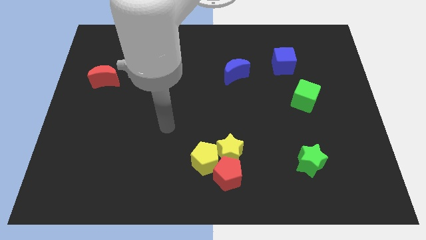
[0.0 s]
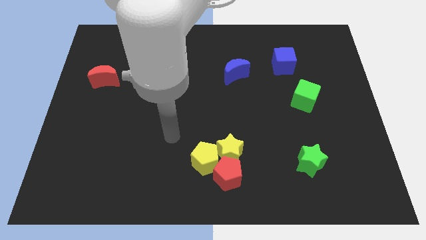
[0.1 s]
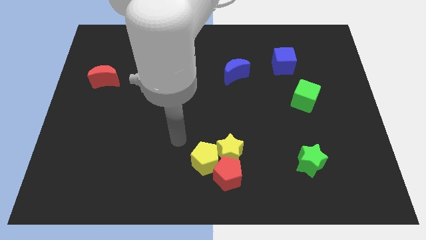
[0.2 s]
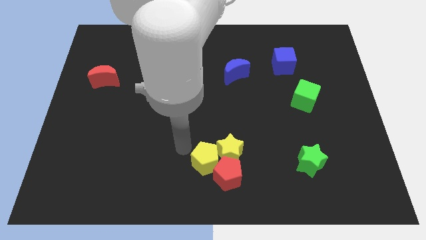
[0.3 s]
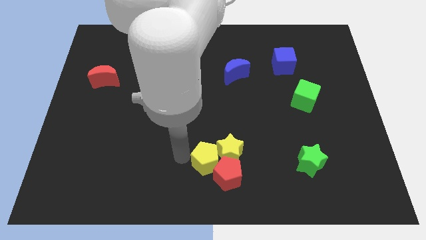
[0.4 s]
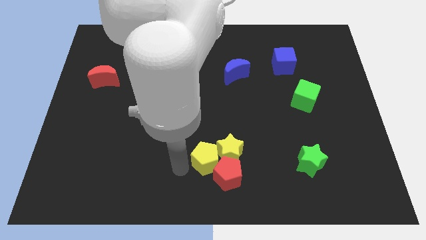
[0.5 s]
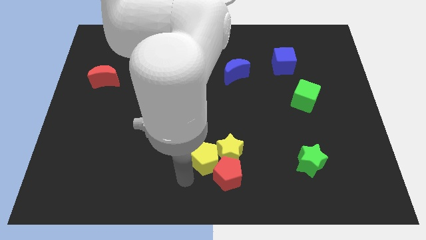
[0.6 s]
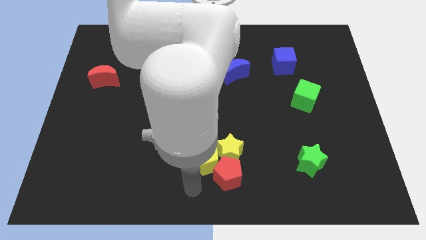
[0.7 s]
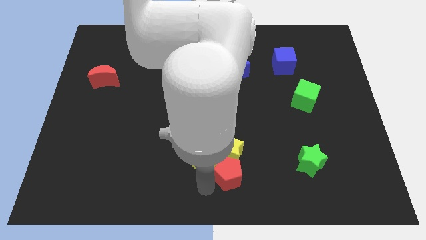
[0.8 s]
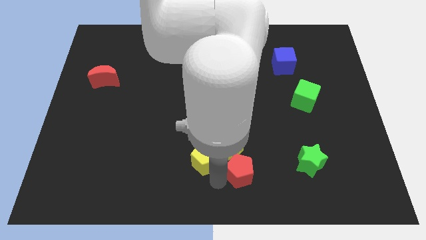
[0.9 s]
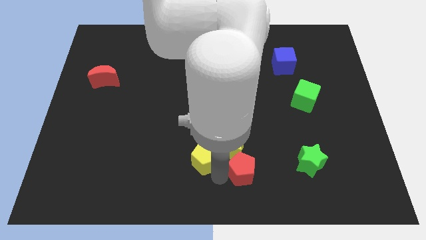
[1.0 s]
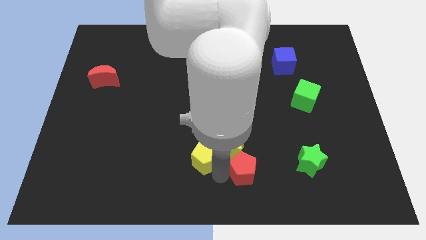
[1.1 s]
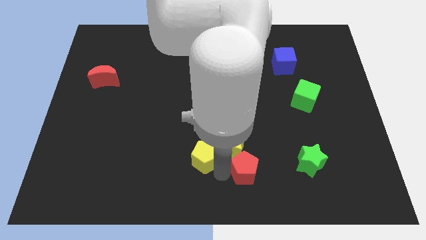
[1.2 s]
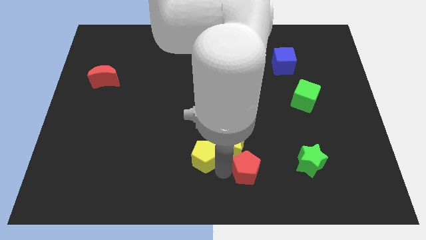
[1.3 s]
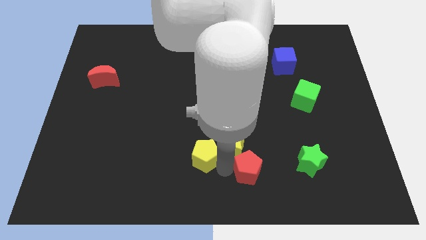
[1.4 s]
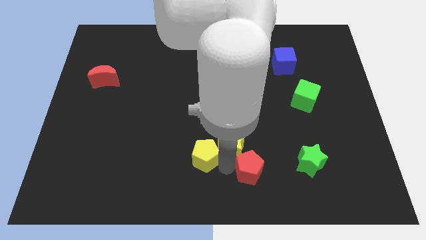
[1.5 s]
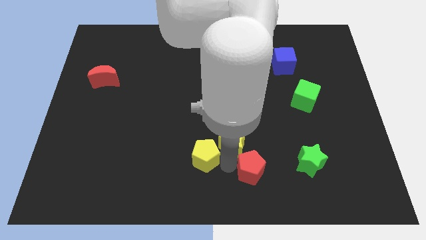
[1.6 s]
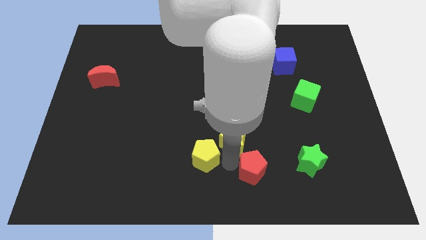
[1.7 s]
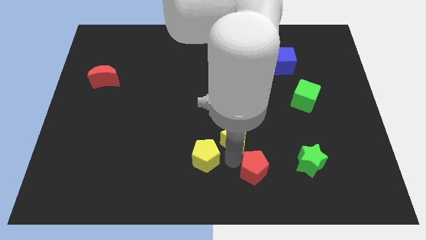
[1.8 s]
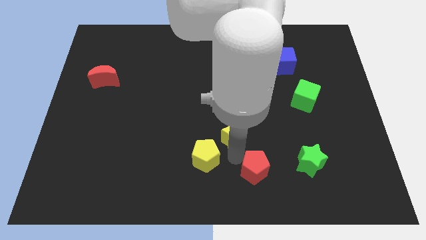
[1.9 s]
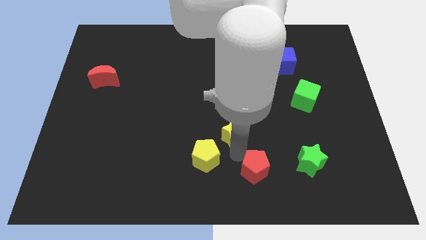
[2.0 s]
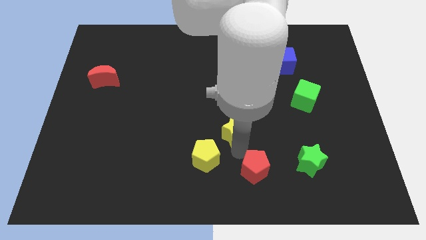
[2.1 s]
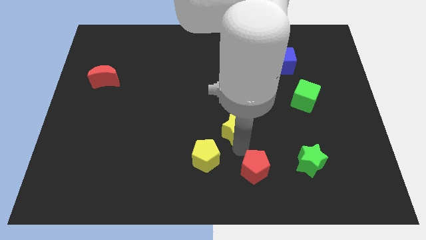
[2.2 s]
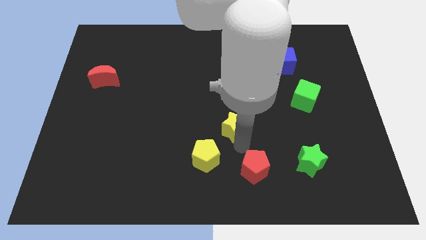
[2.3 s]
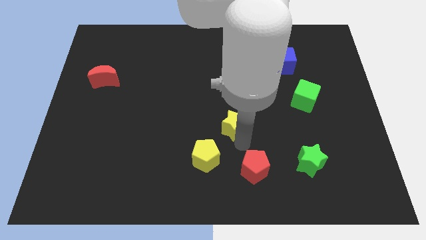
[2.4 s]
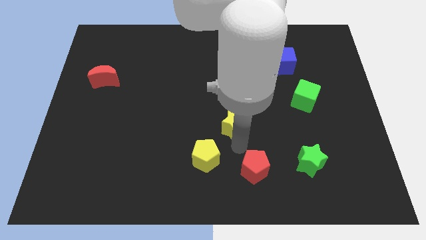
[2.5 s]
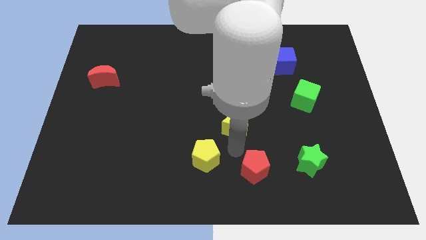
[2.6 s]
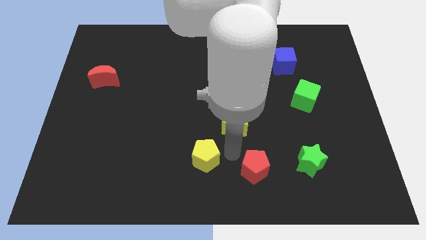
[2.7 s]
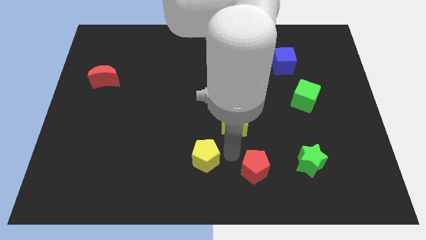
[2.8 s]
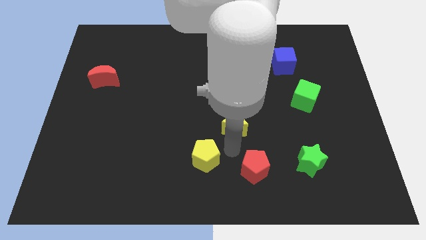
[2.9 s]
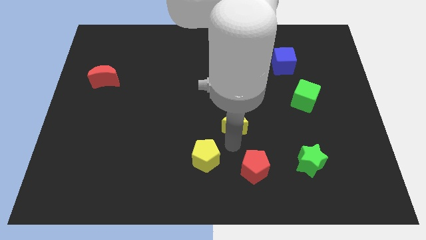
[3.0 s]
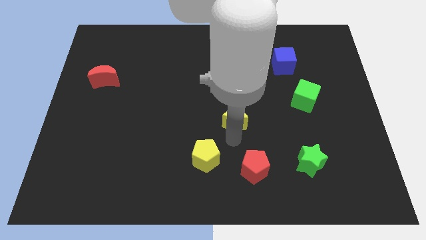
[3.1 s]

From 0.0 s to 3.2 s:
separate the yellow star from the red pentagon and yellow pentagon

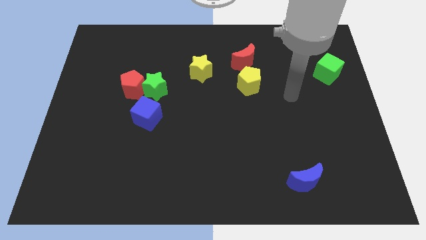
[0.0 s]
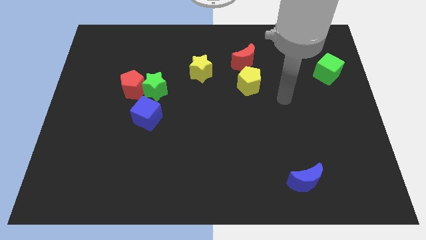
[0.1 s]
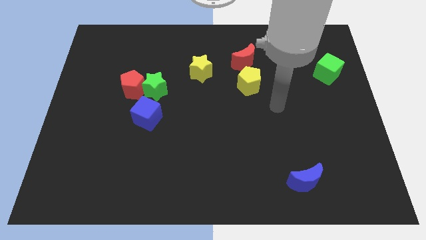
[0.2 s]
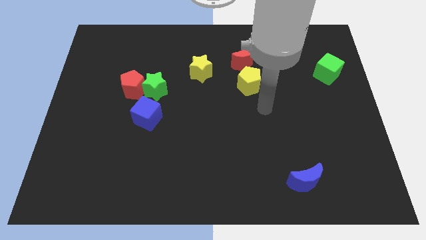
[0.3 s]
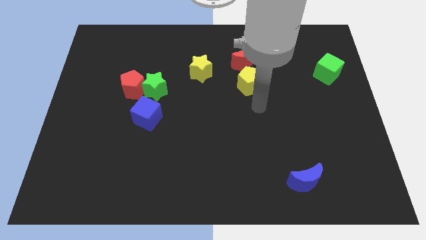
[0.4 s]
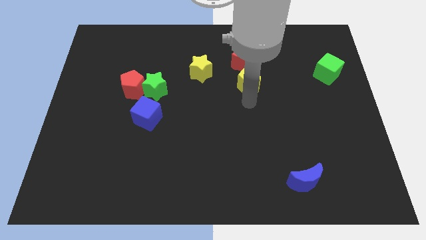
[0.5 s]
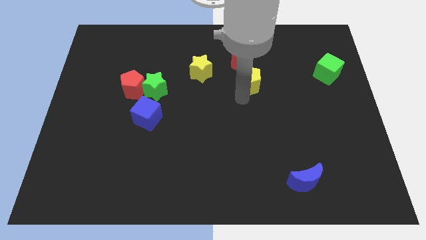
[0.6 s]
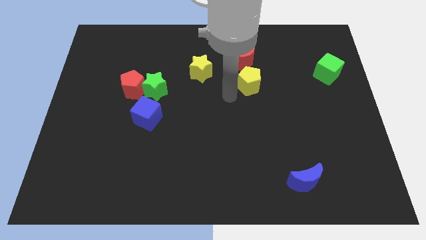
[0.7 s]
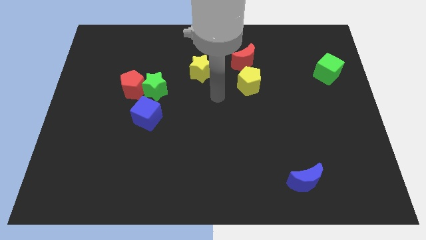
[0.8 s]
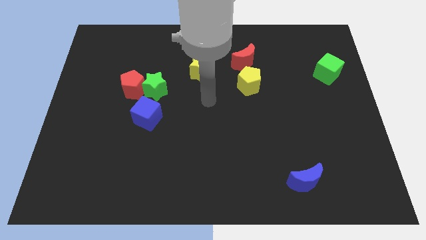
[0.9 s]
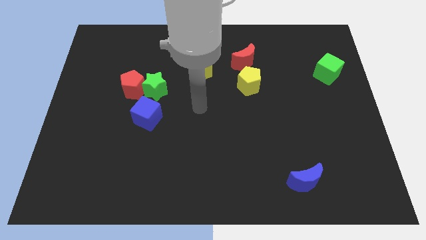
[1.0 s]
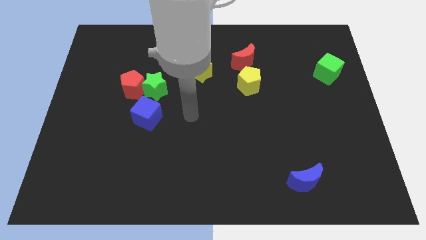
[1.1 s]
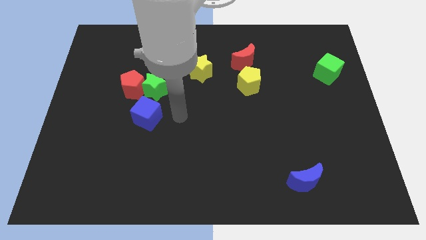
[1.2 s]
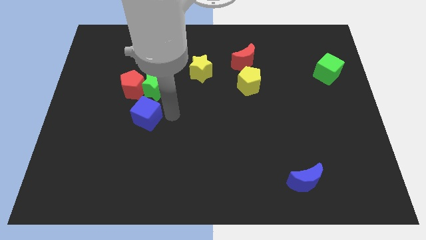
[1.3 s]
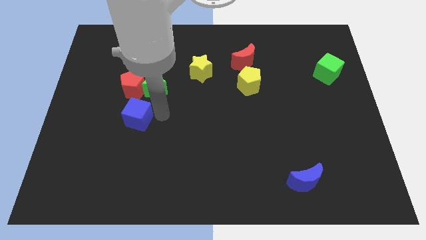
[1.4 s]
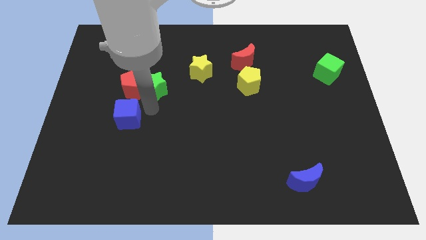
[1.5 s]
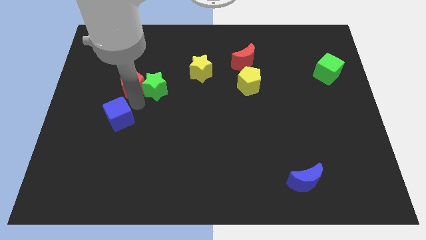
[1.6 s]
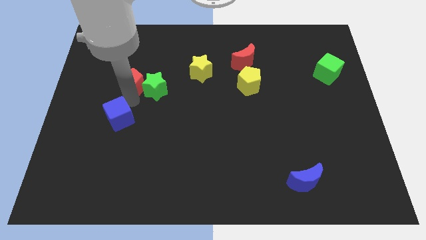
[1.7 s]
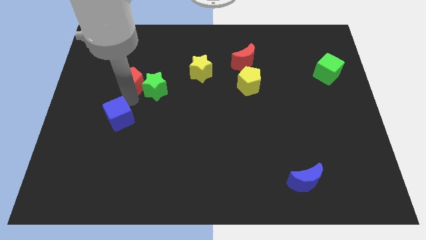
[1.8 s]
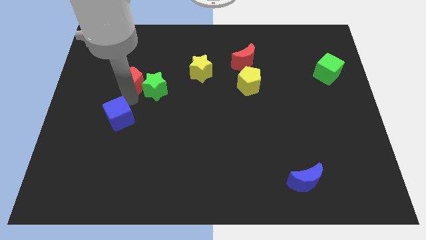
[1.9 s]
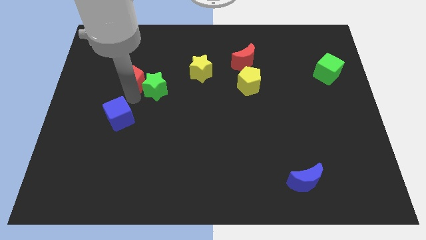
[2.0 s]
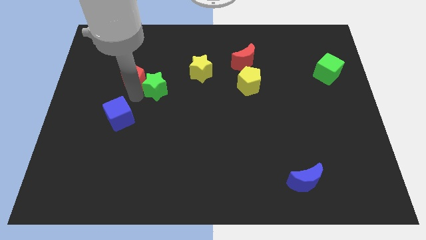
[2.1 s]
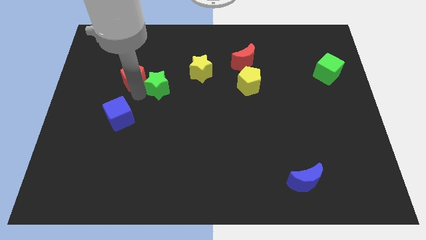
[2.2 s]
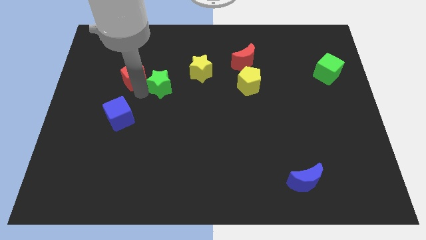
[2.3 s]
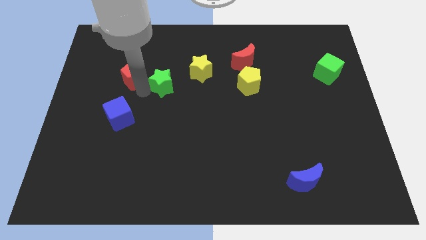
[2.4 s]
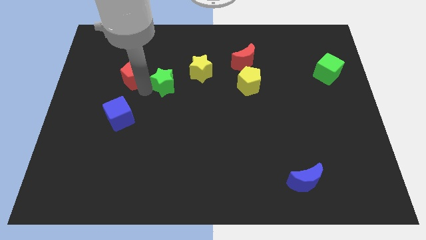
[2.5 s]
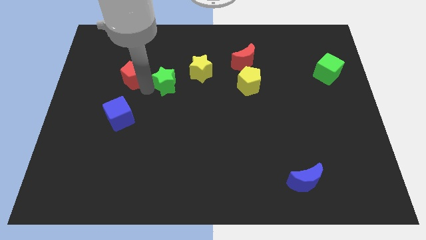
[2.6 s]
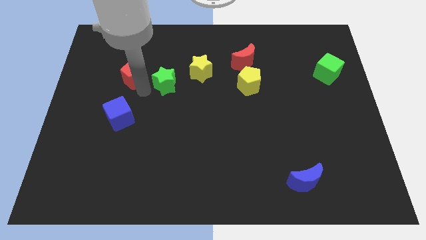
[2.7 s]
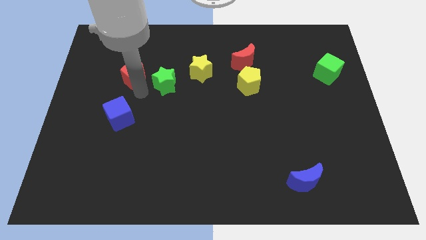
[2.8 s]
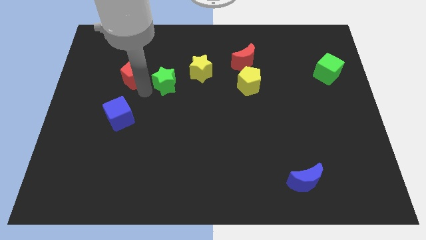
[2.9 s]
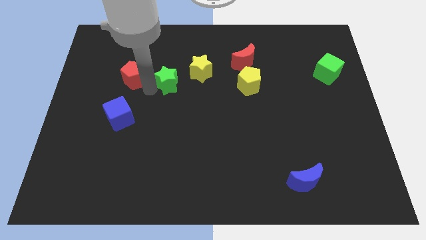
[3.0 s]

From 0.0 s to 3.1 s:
move the green star away from the red pentagon and blue cube

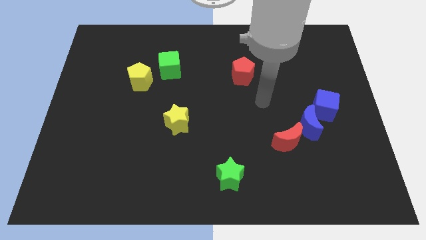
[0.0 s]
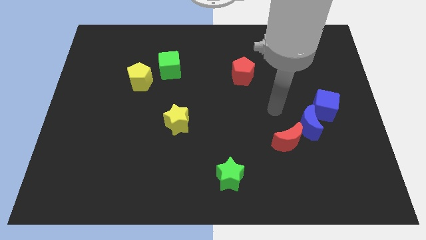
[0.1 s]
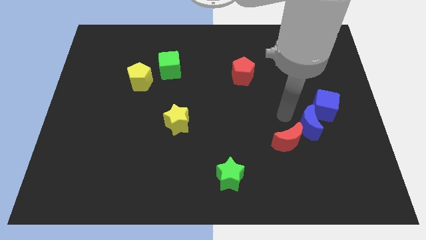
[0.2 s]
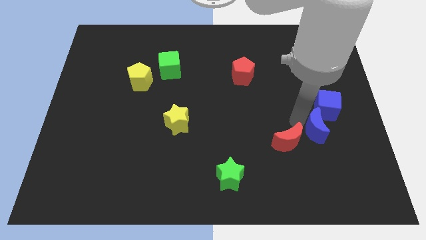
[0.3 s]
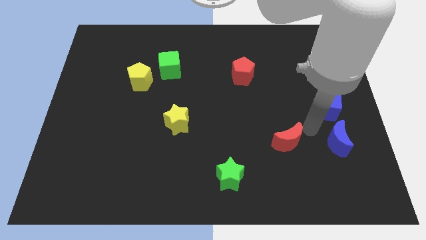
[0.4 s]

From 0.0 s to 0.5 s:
separate the red moon from the blue moon

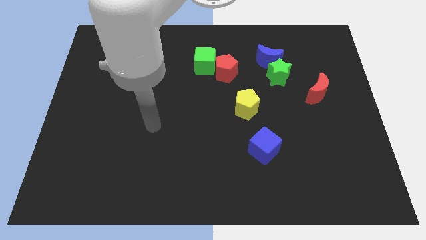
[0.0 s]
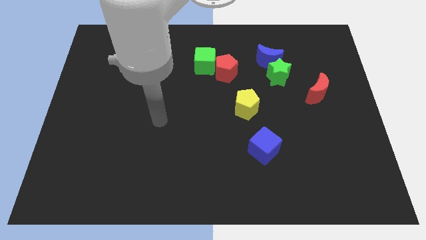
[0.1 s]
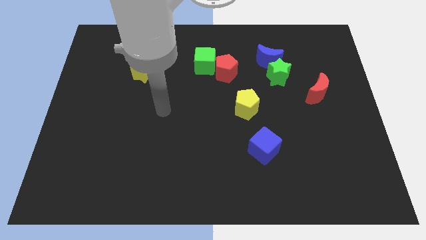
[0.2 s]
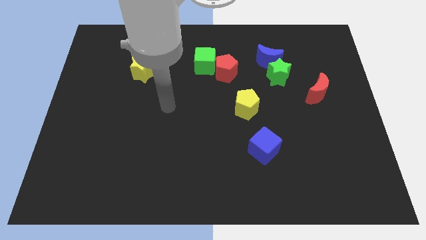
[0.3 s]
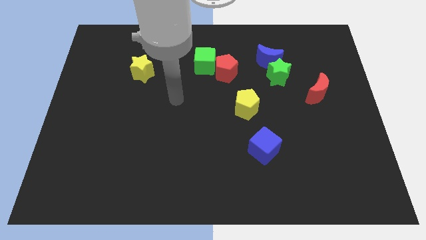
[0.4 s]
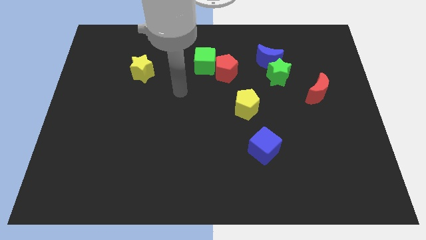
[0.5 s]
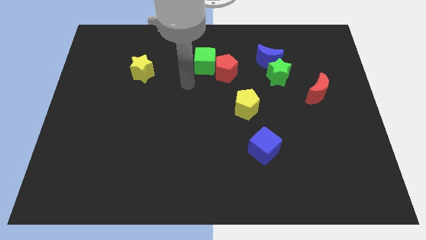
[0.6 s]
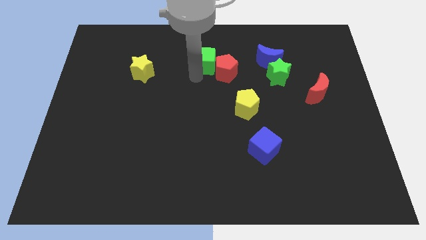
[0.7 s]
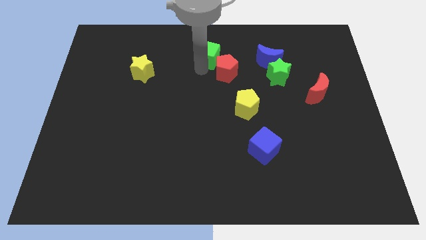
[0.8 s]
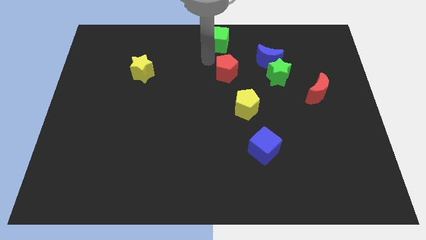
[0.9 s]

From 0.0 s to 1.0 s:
move the red pentagon away from the green cube

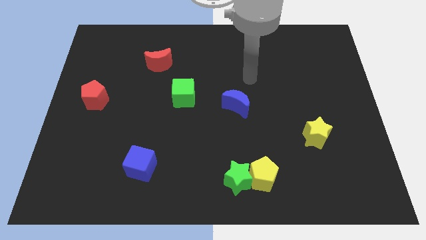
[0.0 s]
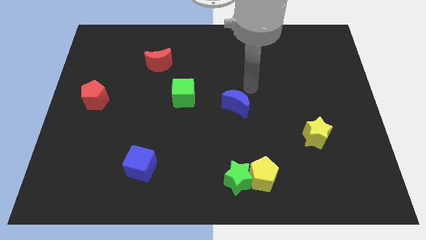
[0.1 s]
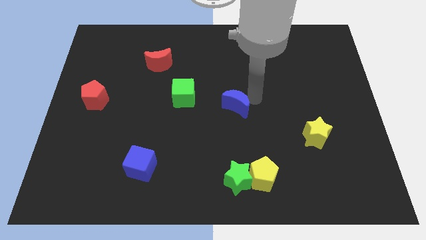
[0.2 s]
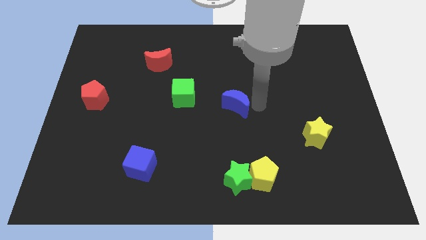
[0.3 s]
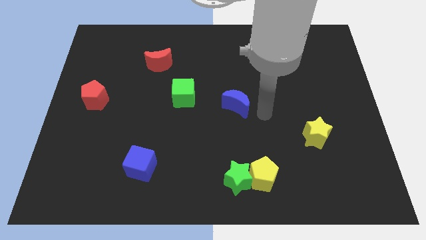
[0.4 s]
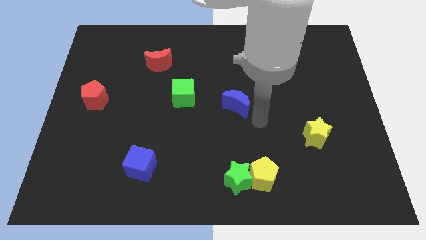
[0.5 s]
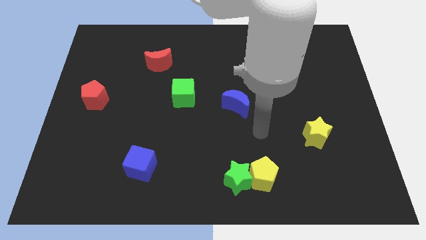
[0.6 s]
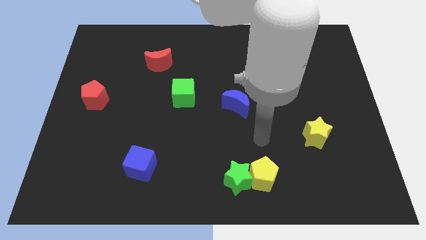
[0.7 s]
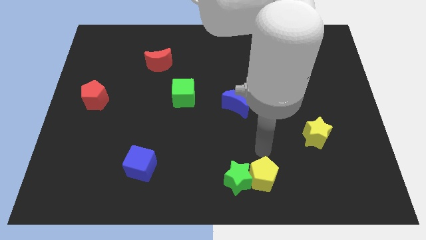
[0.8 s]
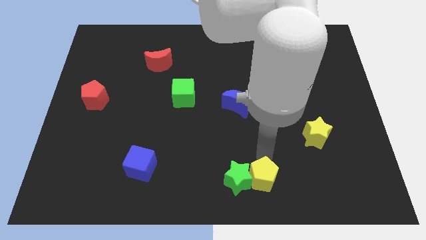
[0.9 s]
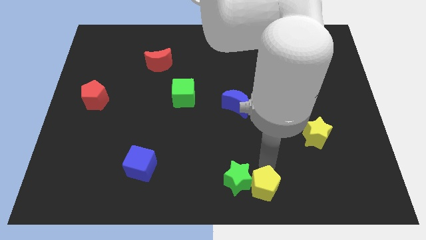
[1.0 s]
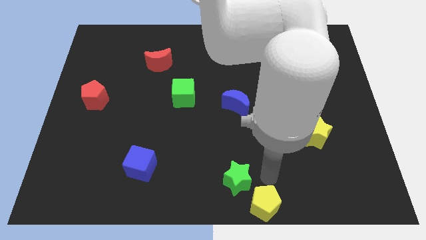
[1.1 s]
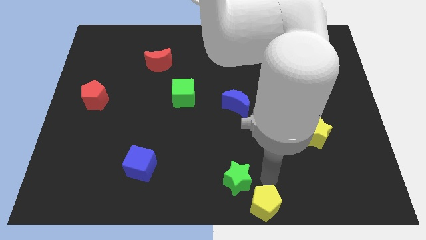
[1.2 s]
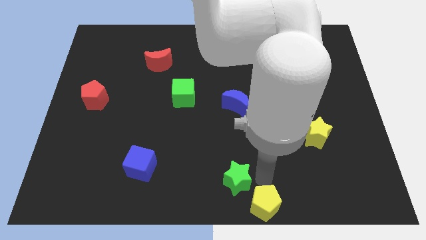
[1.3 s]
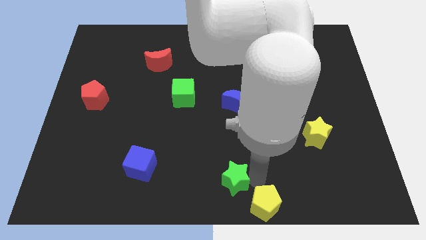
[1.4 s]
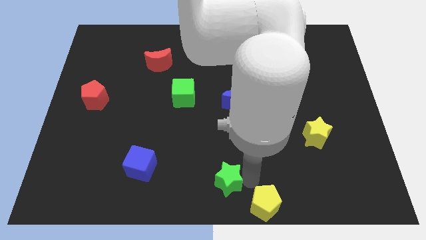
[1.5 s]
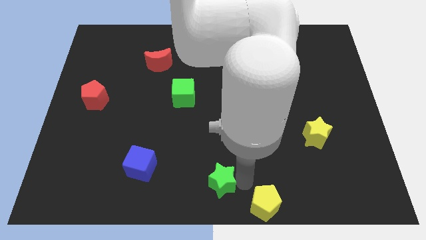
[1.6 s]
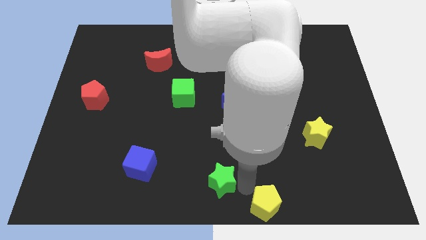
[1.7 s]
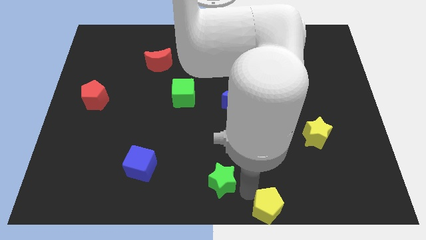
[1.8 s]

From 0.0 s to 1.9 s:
separate the green star from the yellow pentagon
